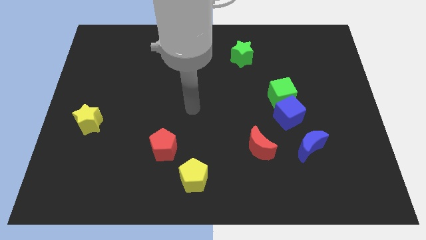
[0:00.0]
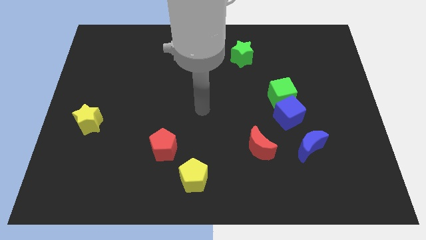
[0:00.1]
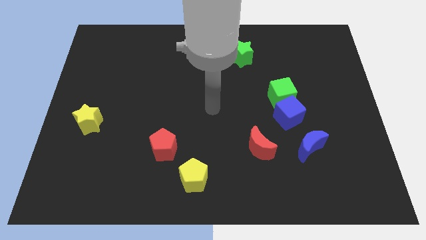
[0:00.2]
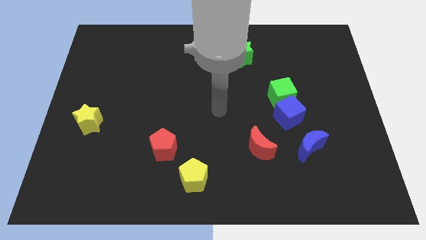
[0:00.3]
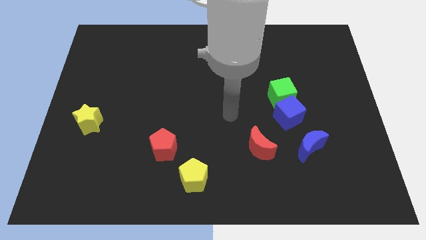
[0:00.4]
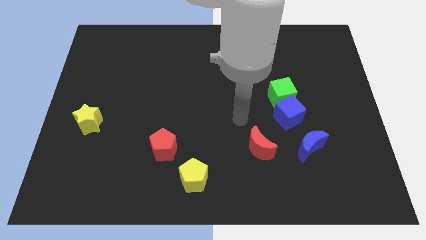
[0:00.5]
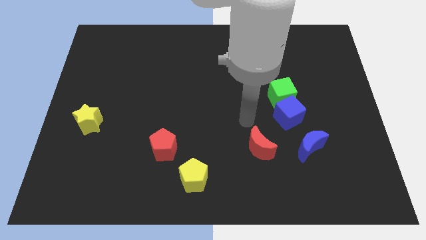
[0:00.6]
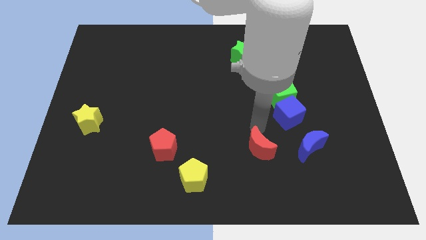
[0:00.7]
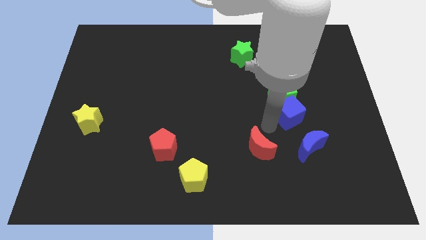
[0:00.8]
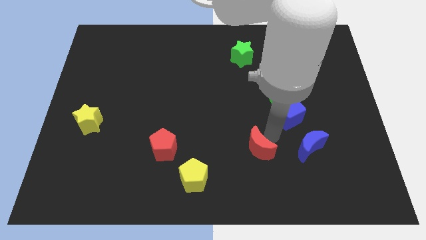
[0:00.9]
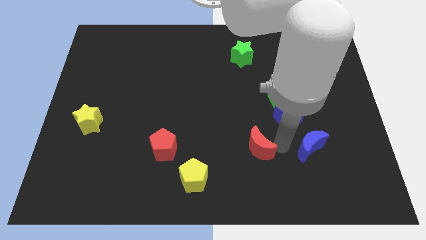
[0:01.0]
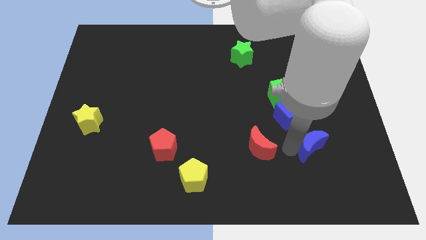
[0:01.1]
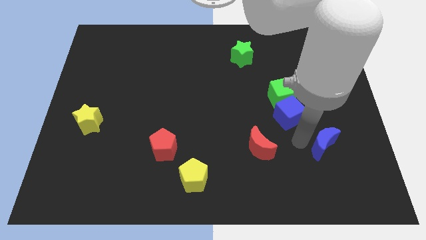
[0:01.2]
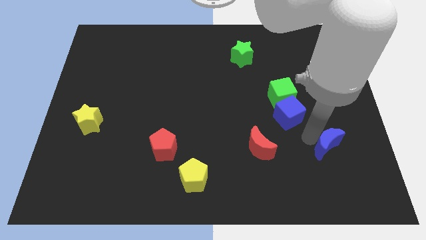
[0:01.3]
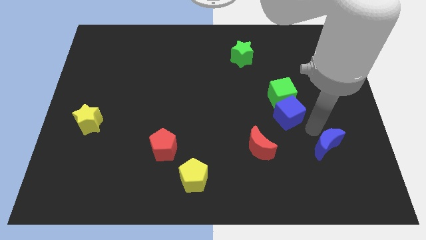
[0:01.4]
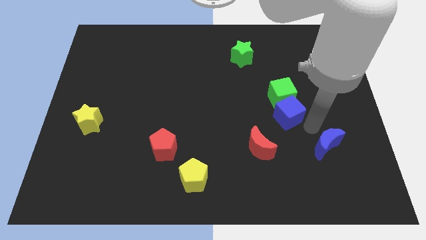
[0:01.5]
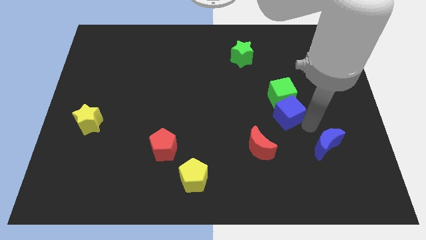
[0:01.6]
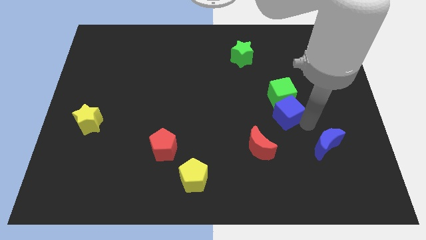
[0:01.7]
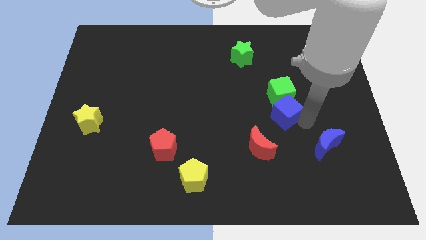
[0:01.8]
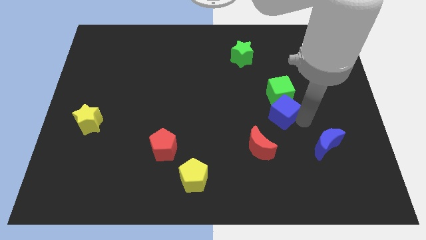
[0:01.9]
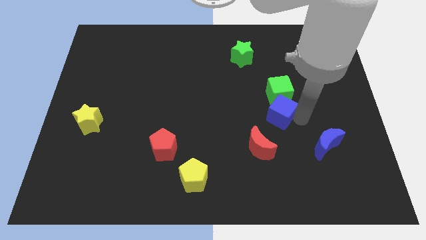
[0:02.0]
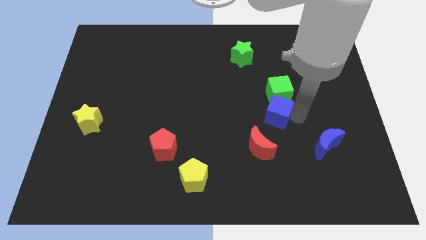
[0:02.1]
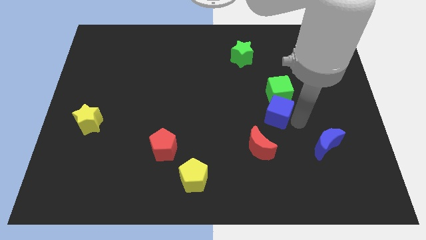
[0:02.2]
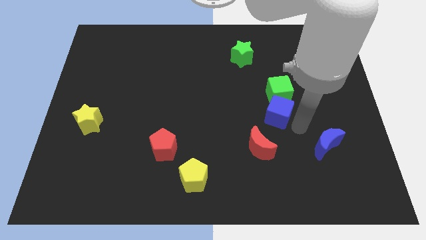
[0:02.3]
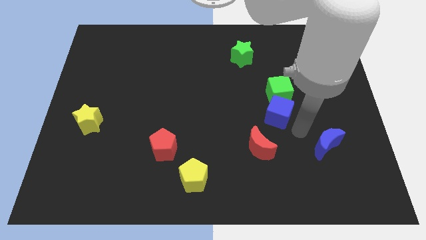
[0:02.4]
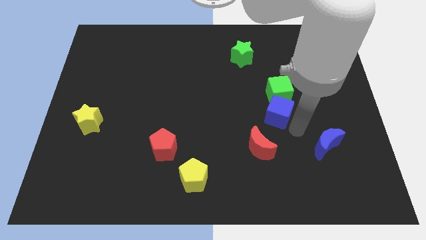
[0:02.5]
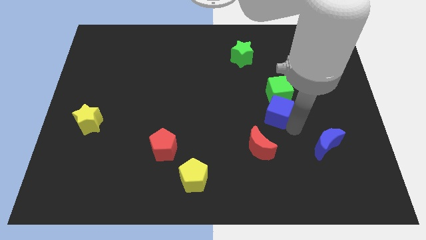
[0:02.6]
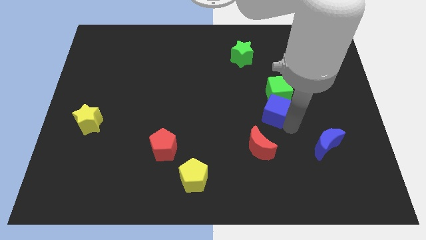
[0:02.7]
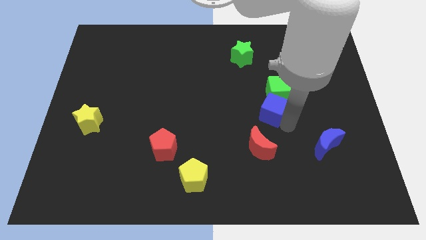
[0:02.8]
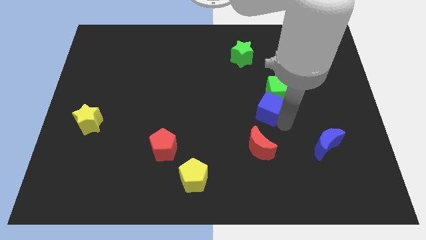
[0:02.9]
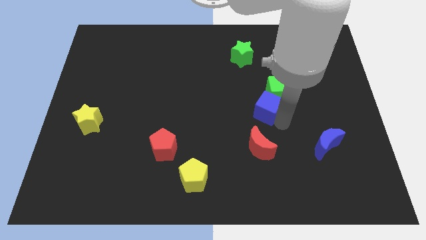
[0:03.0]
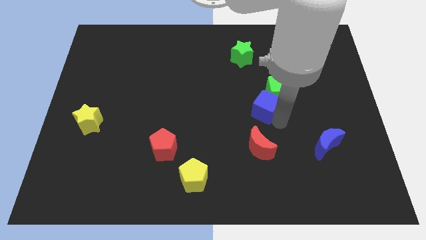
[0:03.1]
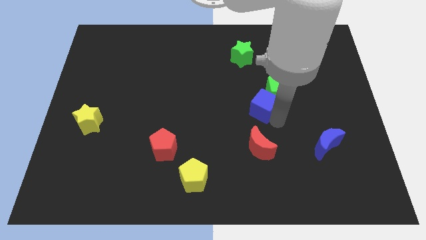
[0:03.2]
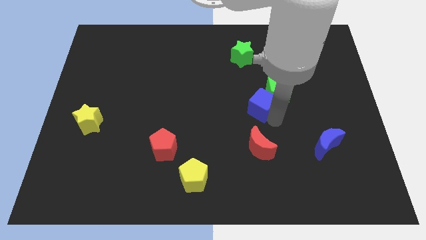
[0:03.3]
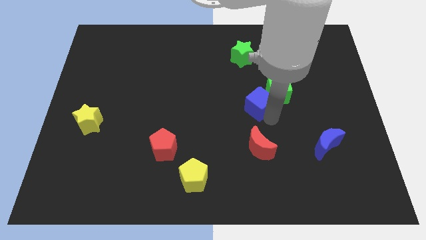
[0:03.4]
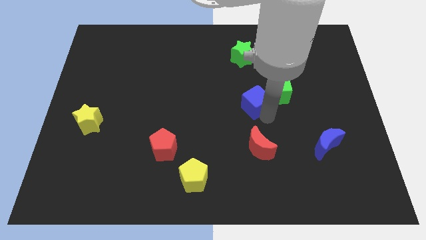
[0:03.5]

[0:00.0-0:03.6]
slide the blue cube somewhat up and then left

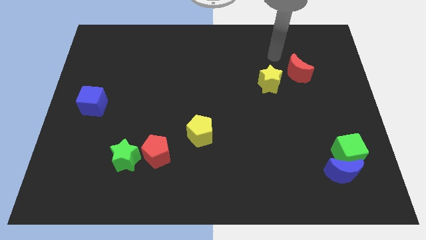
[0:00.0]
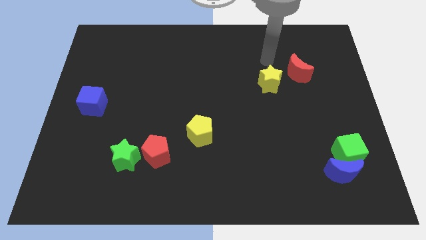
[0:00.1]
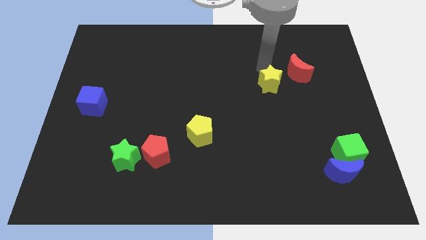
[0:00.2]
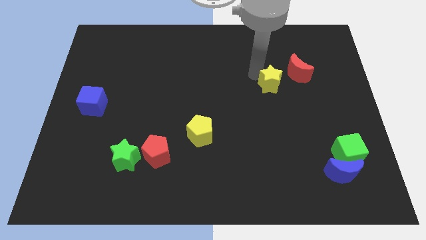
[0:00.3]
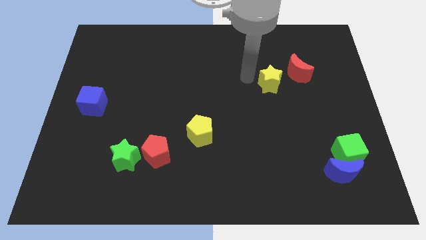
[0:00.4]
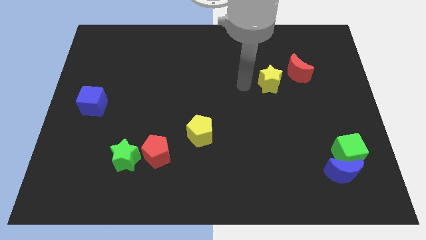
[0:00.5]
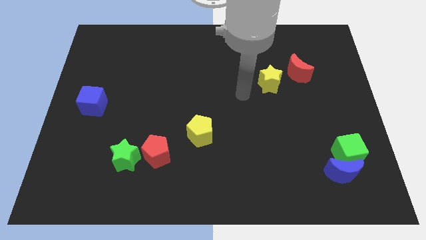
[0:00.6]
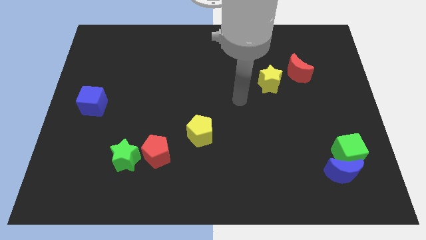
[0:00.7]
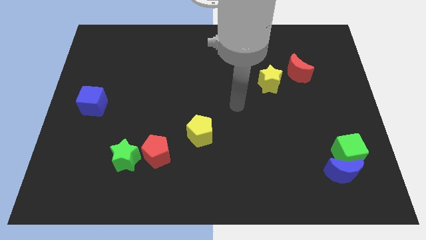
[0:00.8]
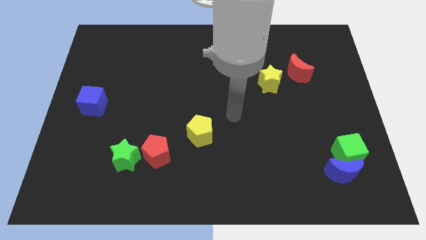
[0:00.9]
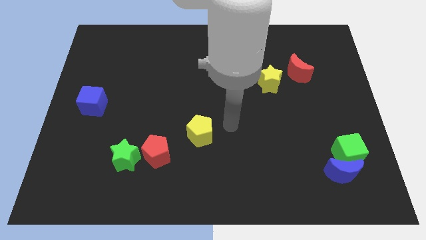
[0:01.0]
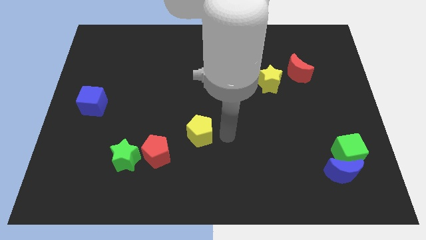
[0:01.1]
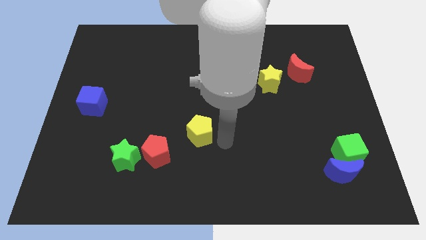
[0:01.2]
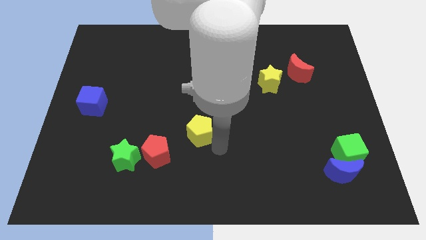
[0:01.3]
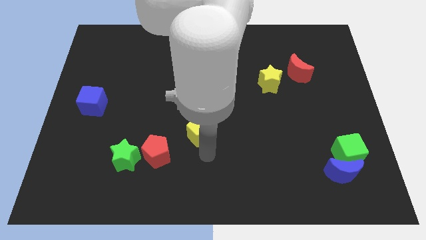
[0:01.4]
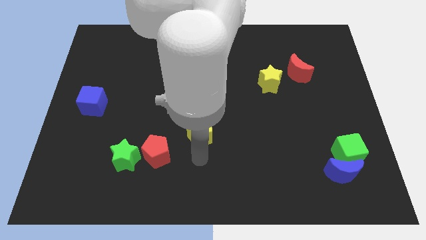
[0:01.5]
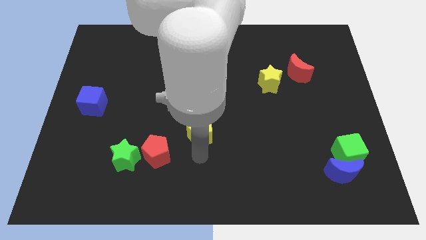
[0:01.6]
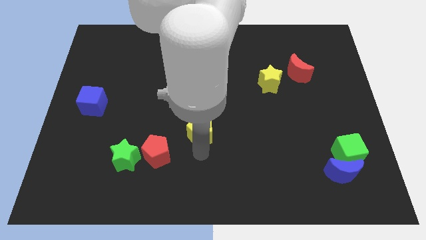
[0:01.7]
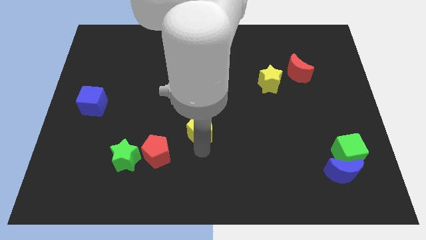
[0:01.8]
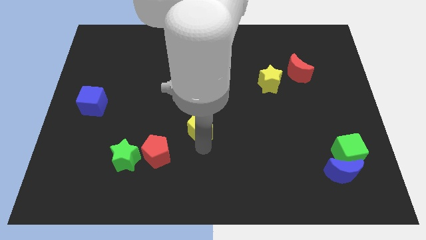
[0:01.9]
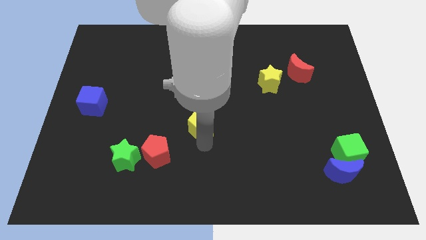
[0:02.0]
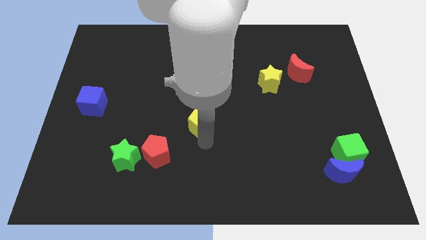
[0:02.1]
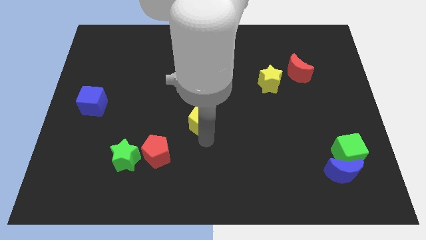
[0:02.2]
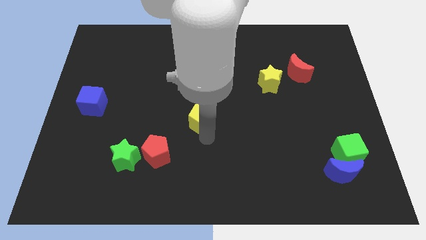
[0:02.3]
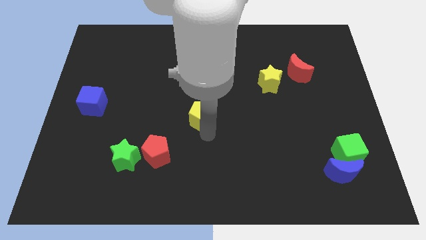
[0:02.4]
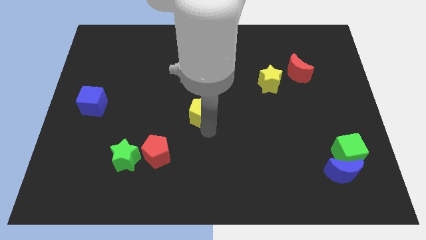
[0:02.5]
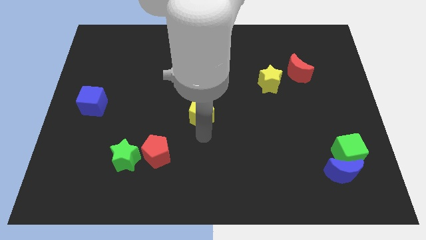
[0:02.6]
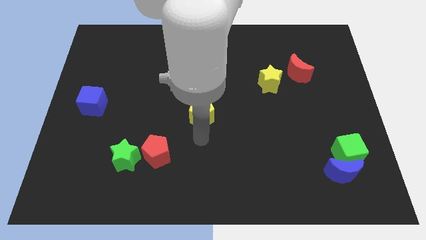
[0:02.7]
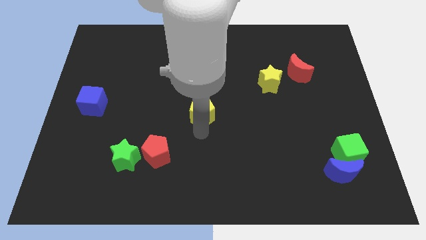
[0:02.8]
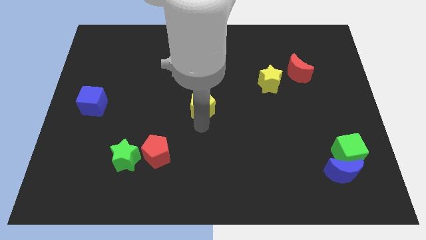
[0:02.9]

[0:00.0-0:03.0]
slide the yellow pentagon a little up

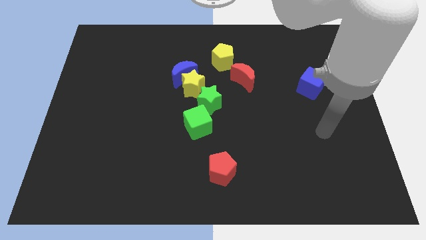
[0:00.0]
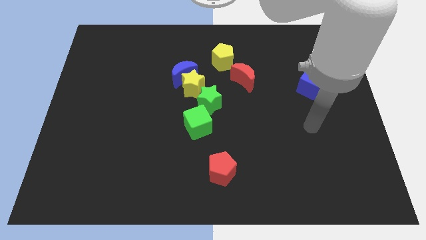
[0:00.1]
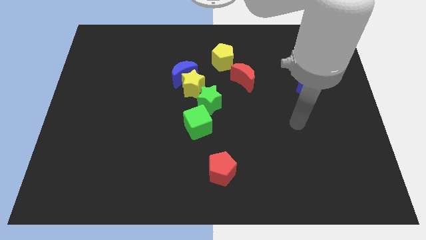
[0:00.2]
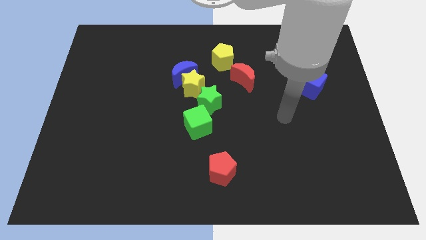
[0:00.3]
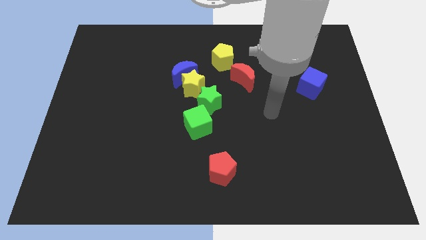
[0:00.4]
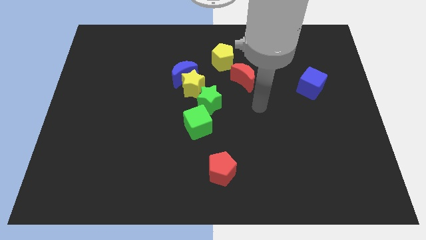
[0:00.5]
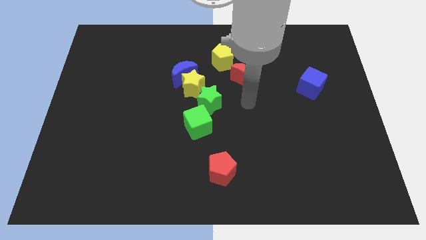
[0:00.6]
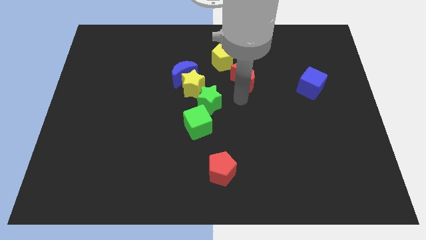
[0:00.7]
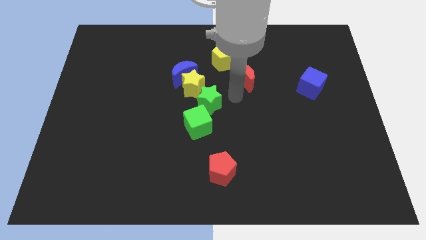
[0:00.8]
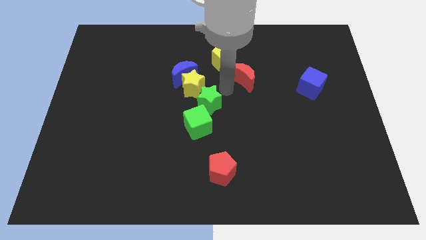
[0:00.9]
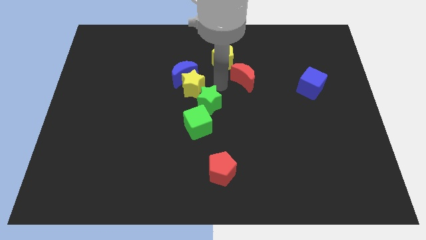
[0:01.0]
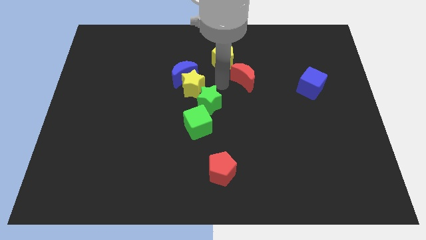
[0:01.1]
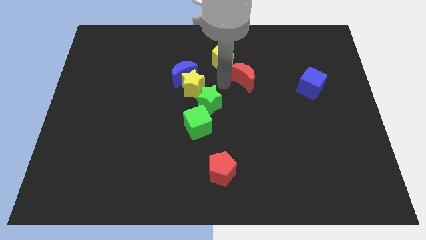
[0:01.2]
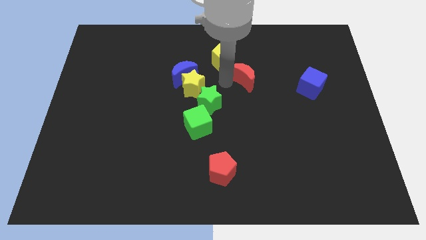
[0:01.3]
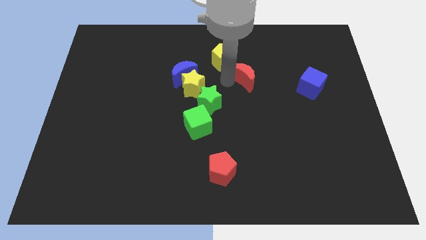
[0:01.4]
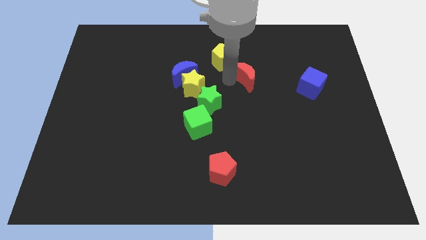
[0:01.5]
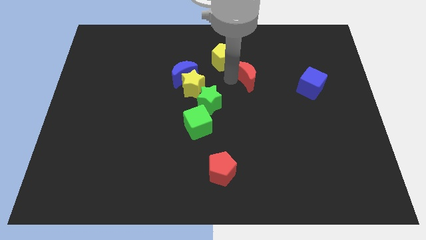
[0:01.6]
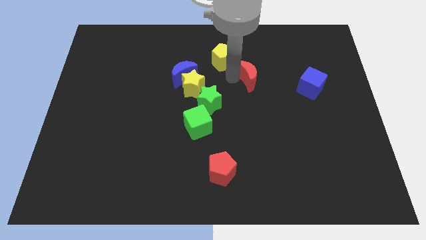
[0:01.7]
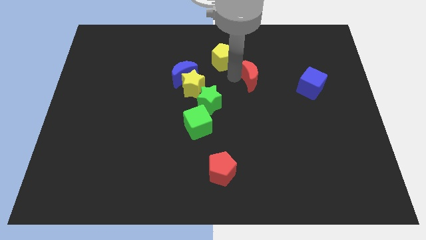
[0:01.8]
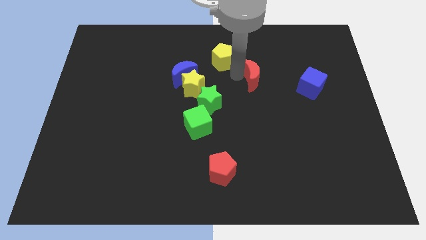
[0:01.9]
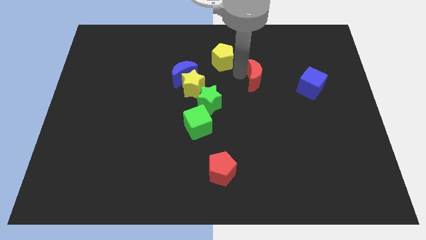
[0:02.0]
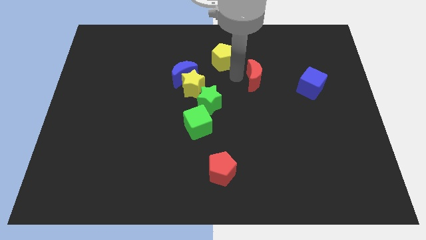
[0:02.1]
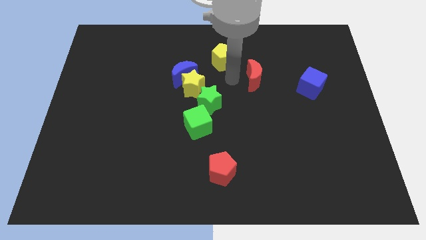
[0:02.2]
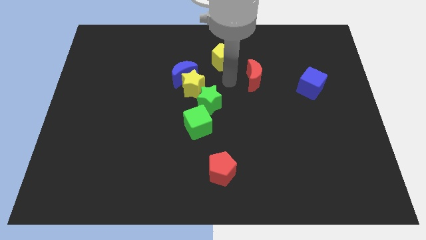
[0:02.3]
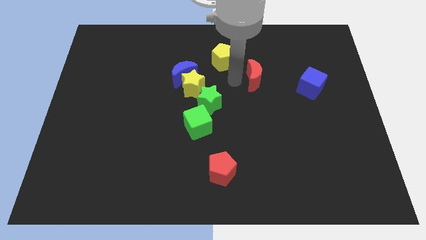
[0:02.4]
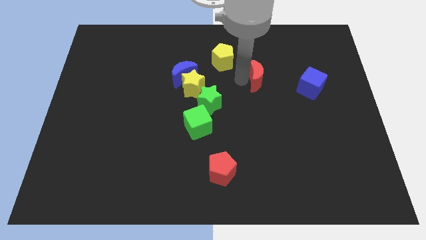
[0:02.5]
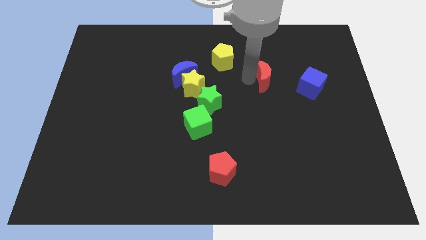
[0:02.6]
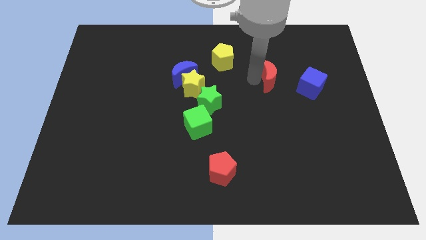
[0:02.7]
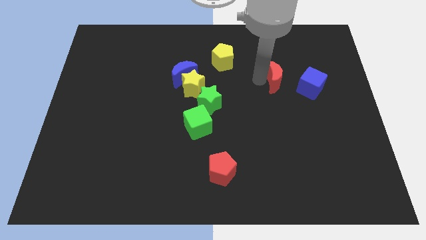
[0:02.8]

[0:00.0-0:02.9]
slide the red moon to the right slightly
